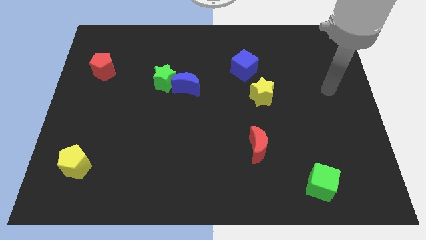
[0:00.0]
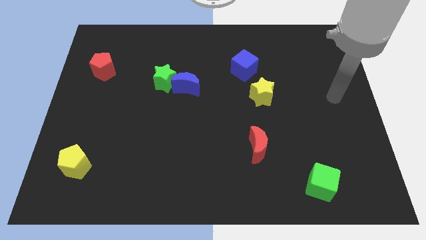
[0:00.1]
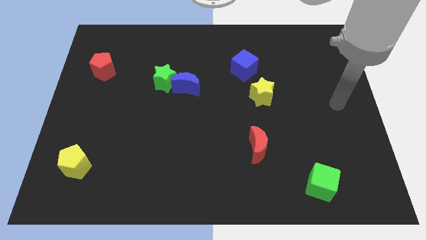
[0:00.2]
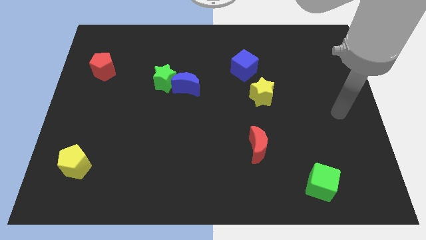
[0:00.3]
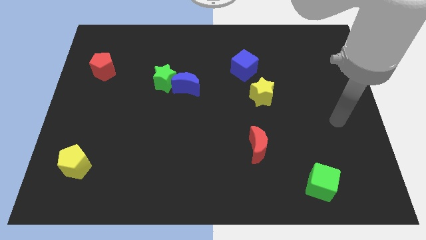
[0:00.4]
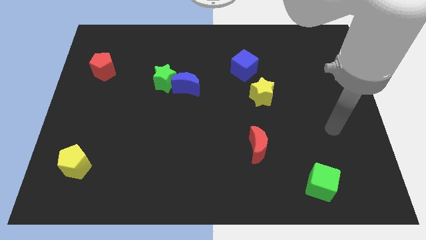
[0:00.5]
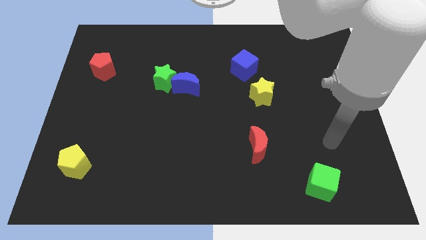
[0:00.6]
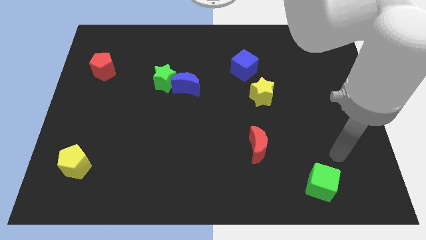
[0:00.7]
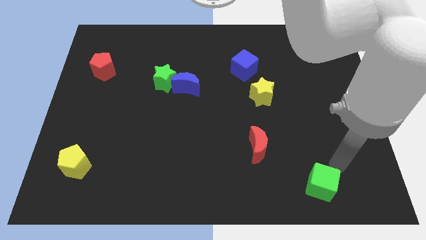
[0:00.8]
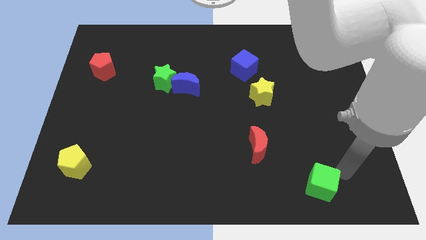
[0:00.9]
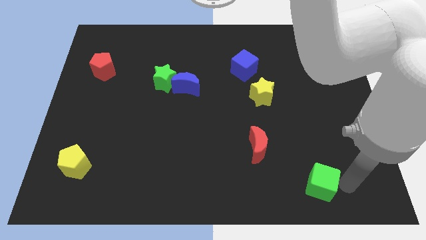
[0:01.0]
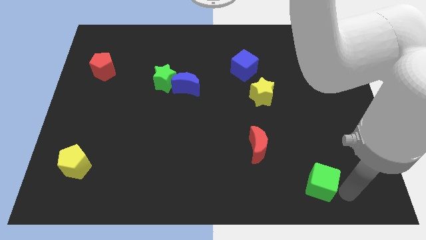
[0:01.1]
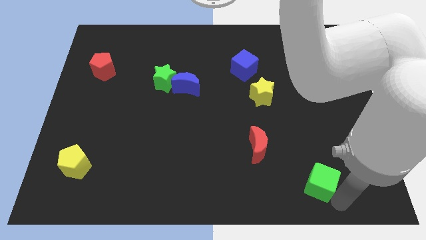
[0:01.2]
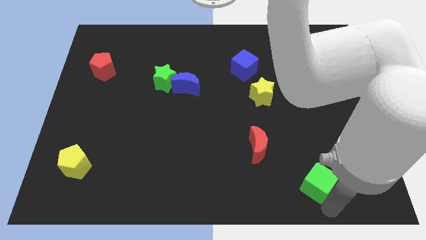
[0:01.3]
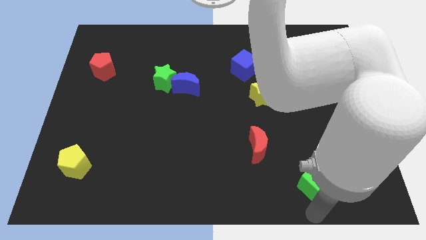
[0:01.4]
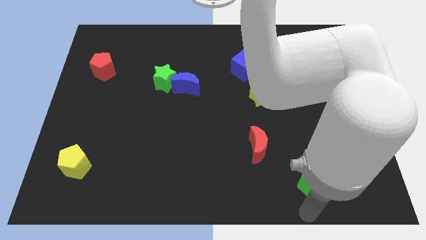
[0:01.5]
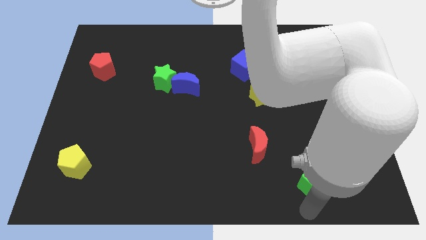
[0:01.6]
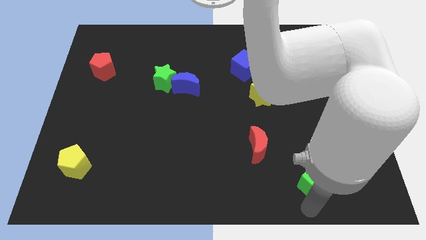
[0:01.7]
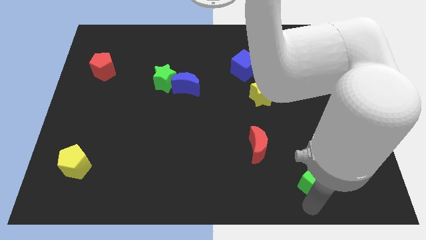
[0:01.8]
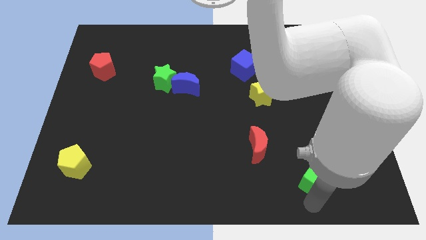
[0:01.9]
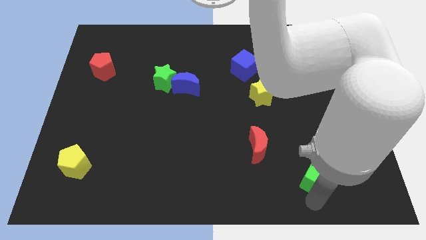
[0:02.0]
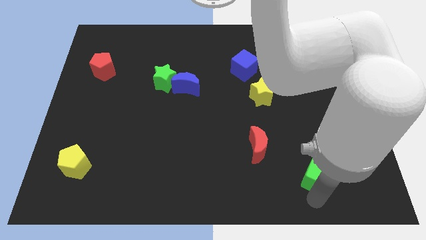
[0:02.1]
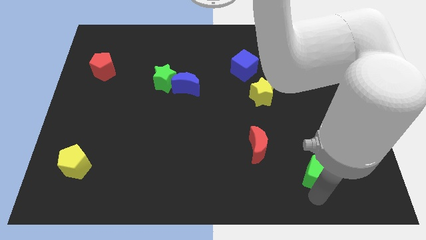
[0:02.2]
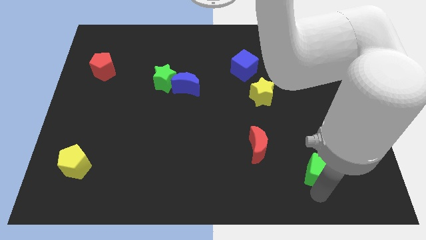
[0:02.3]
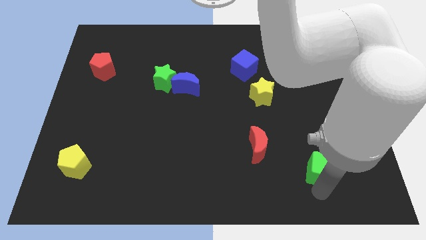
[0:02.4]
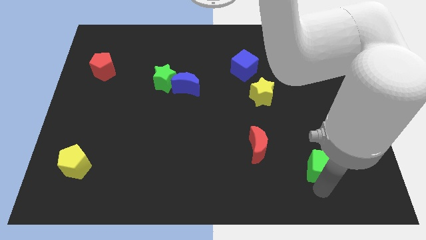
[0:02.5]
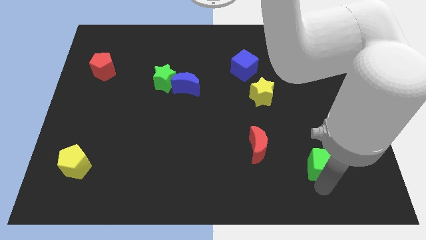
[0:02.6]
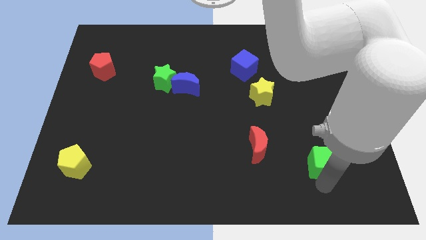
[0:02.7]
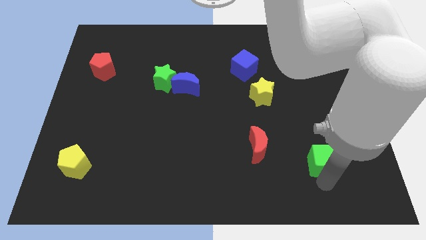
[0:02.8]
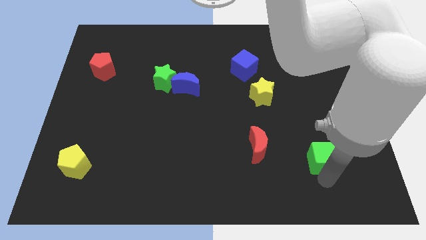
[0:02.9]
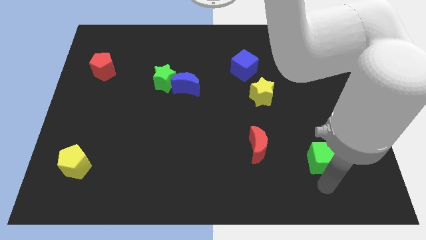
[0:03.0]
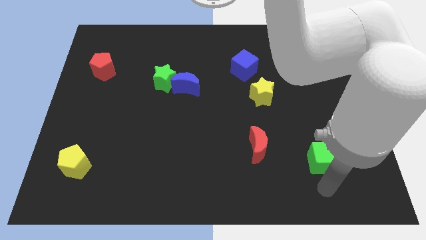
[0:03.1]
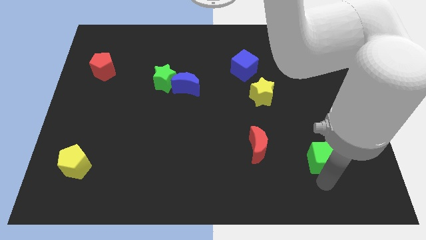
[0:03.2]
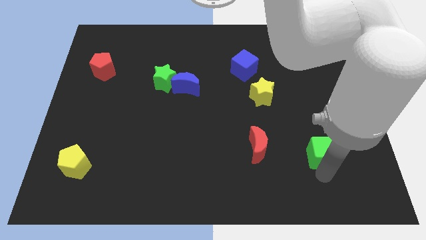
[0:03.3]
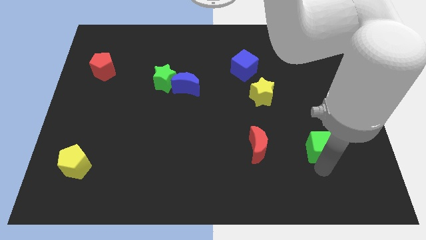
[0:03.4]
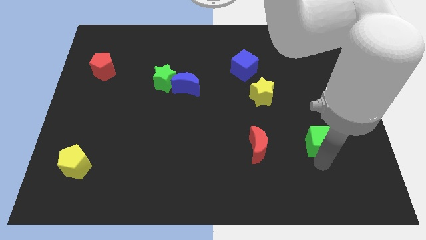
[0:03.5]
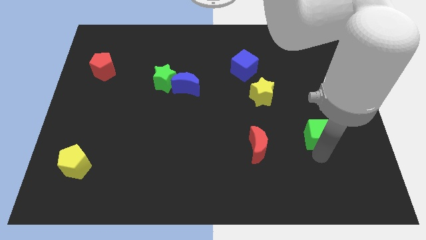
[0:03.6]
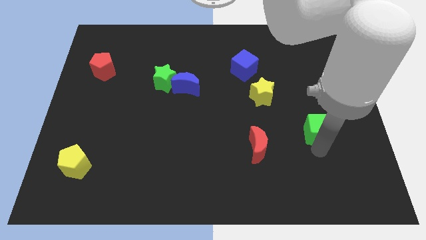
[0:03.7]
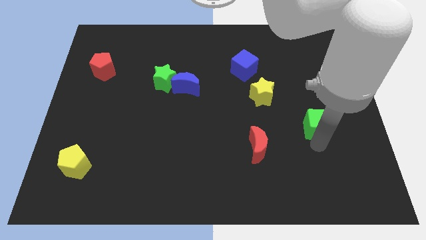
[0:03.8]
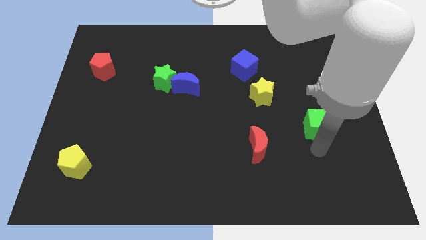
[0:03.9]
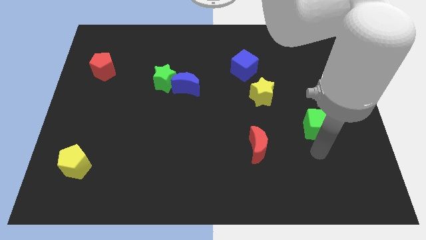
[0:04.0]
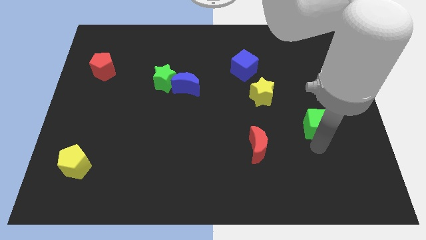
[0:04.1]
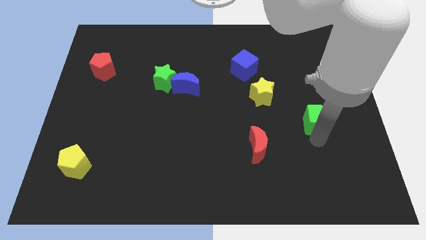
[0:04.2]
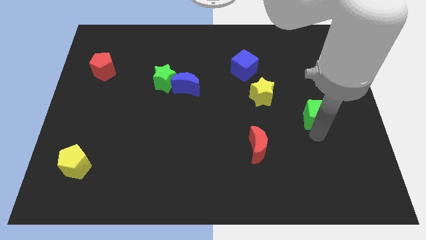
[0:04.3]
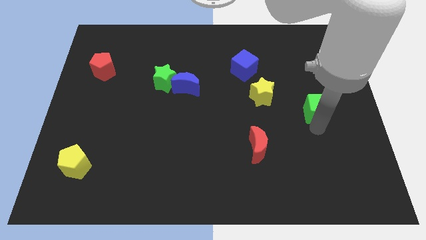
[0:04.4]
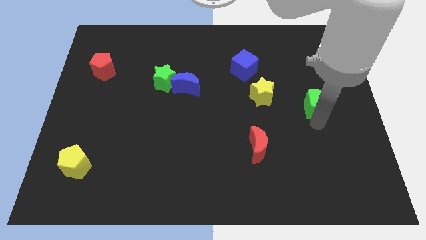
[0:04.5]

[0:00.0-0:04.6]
slide the green cube up

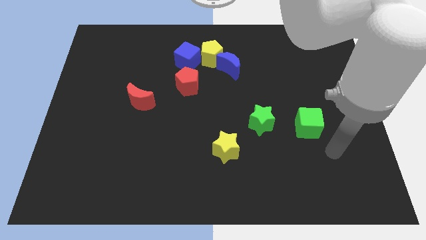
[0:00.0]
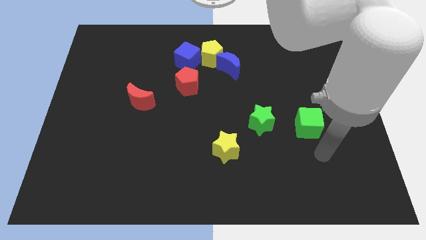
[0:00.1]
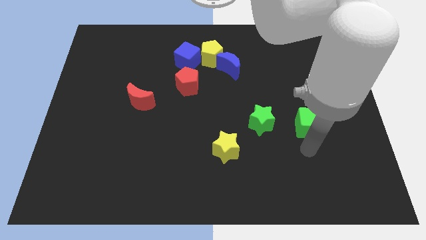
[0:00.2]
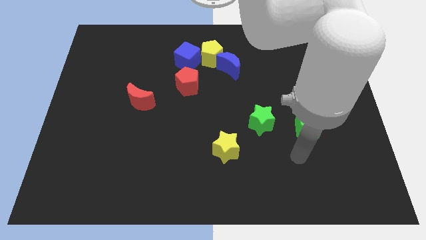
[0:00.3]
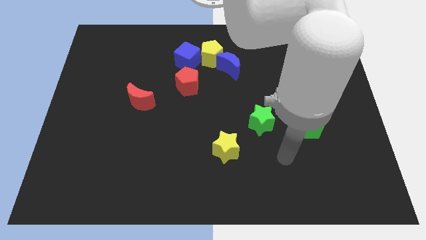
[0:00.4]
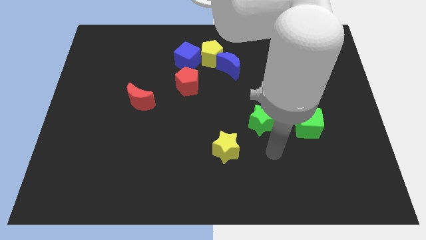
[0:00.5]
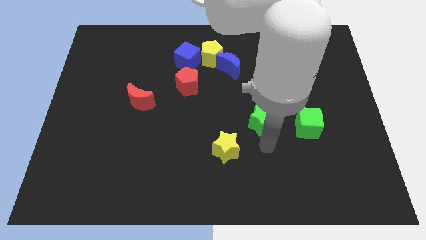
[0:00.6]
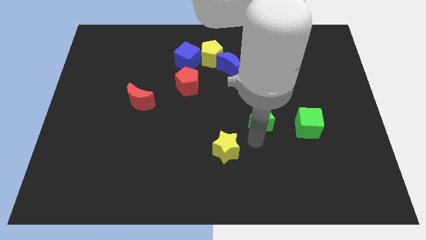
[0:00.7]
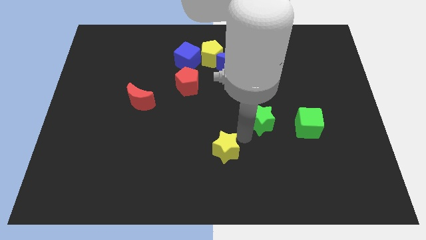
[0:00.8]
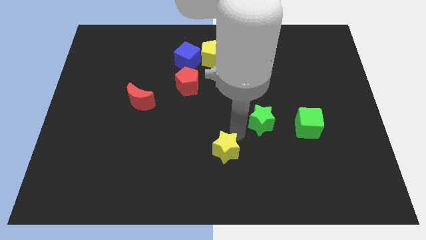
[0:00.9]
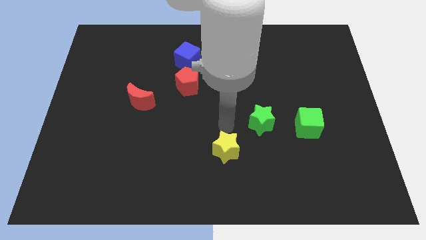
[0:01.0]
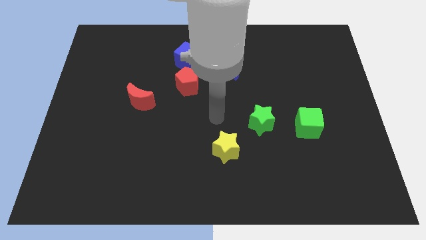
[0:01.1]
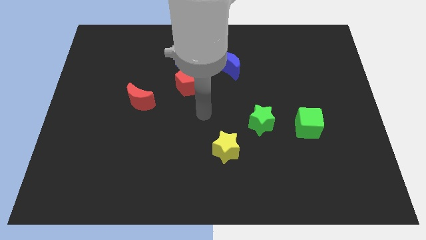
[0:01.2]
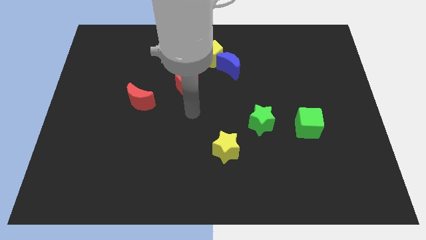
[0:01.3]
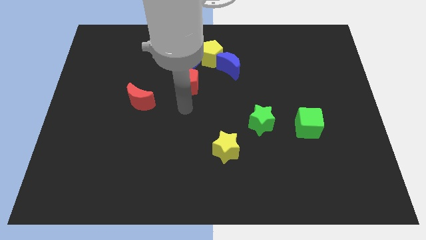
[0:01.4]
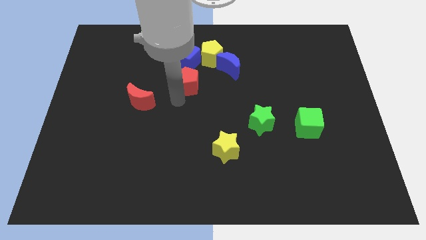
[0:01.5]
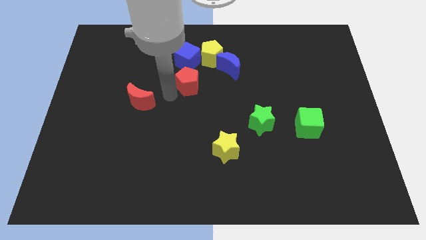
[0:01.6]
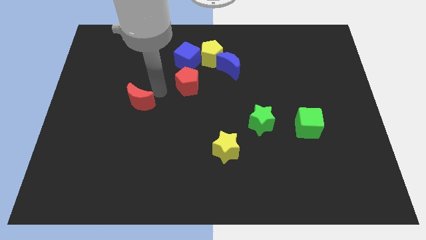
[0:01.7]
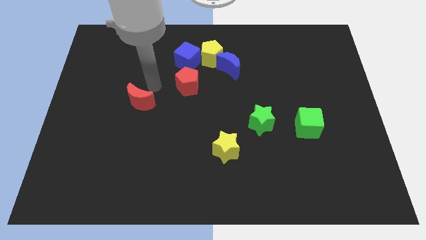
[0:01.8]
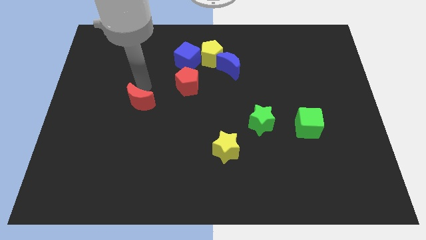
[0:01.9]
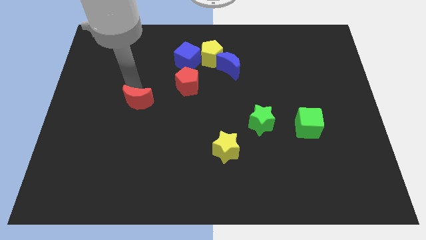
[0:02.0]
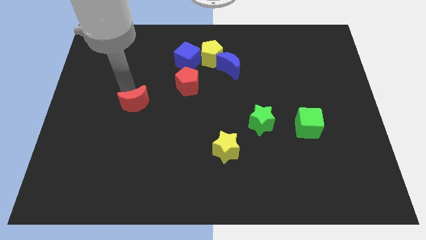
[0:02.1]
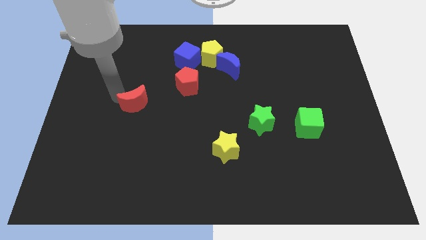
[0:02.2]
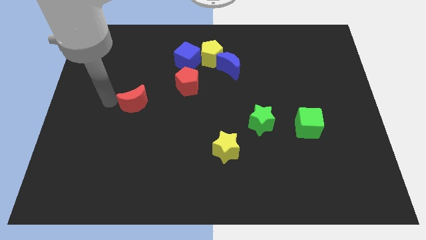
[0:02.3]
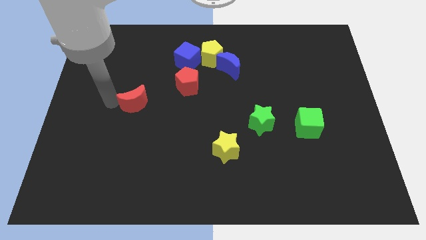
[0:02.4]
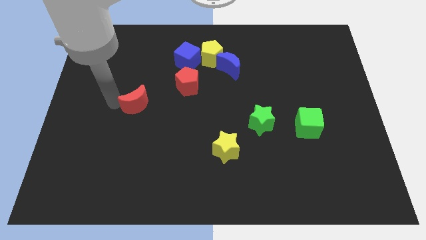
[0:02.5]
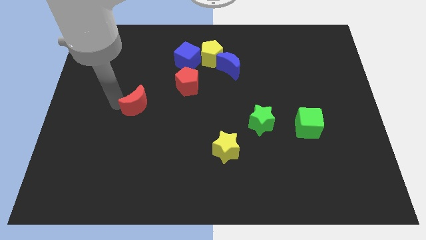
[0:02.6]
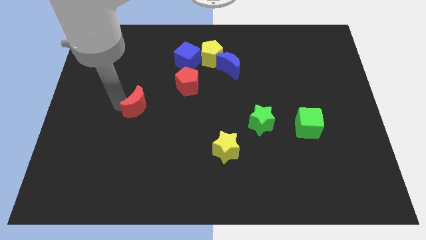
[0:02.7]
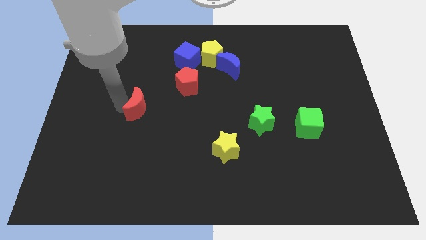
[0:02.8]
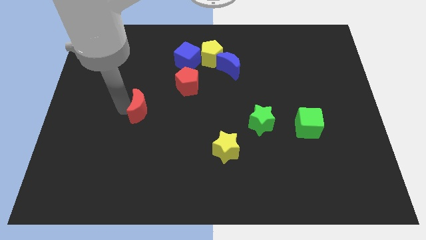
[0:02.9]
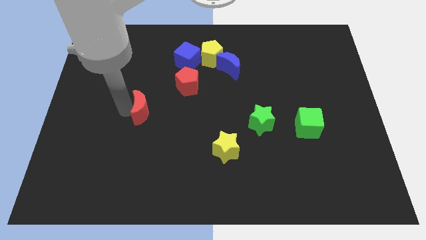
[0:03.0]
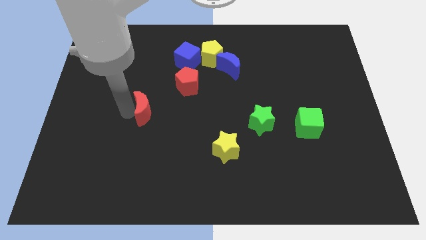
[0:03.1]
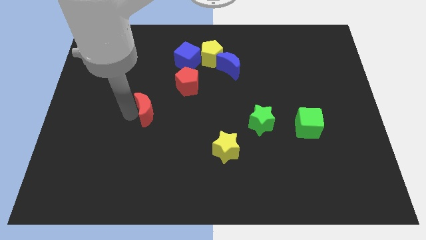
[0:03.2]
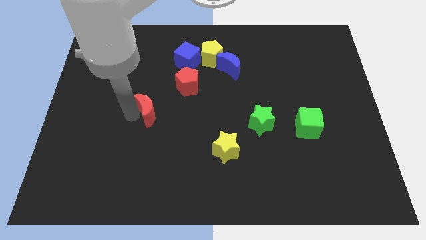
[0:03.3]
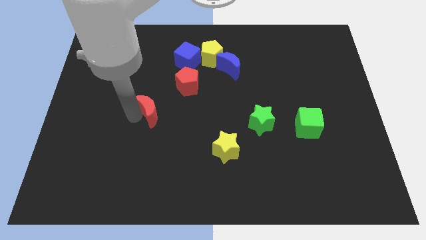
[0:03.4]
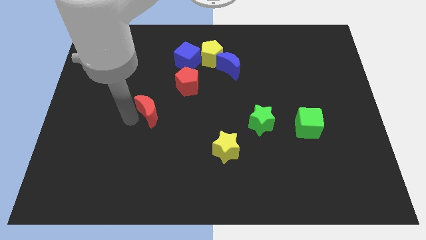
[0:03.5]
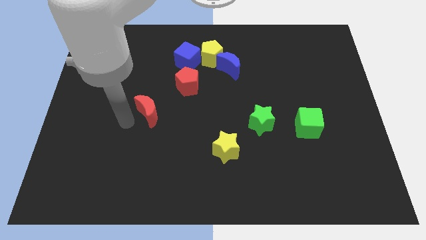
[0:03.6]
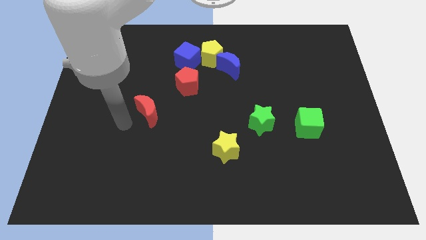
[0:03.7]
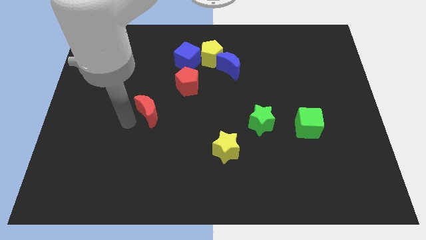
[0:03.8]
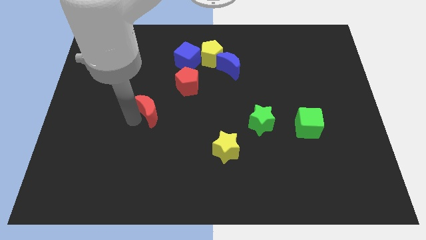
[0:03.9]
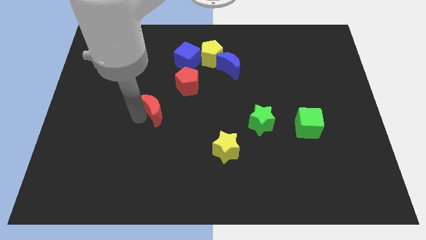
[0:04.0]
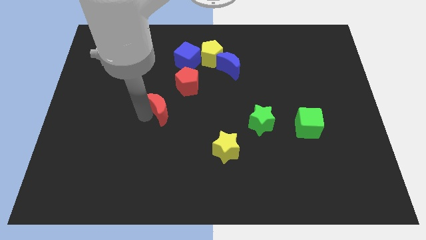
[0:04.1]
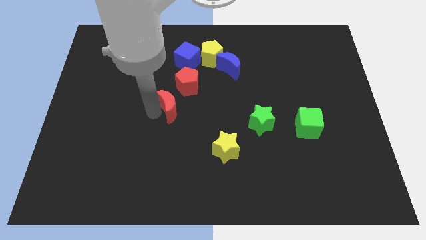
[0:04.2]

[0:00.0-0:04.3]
push the red moon right a little bit
